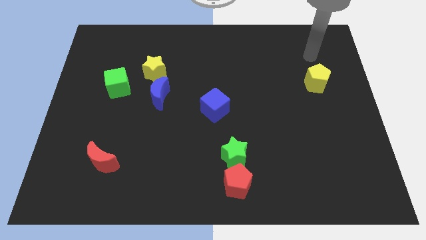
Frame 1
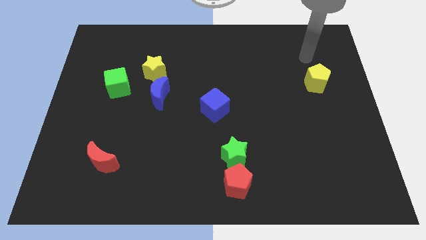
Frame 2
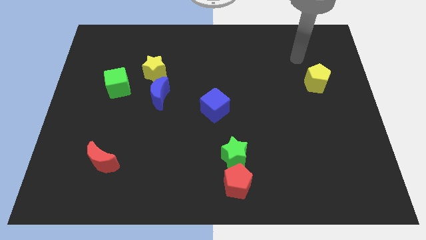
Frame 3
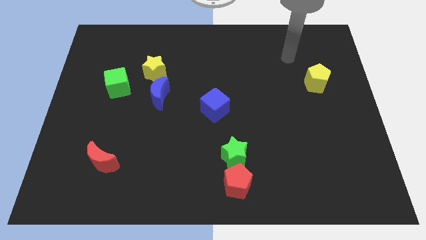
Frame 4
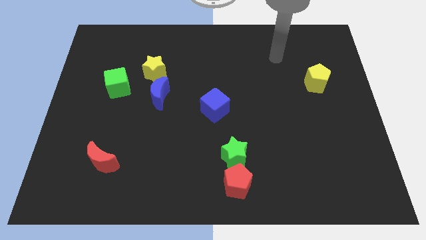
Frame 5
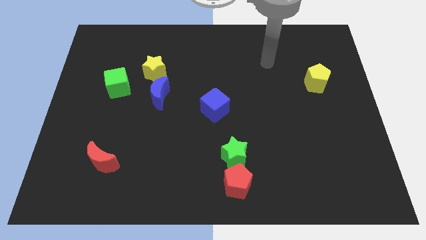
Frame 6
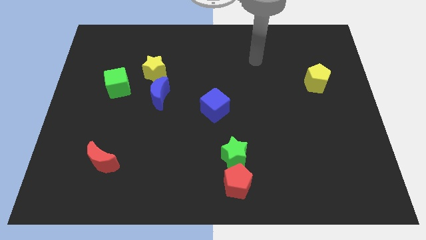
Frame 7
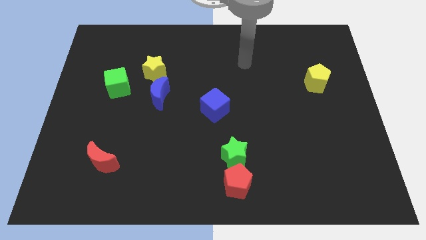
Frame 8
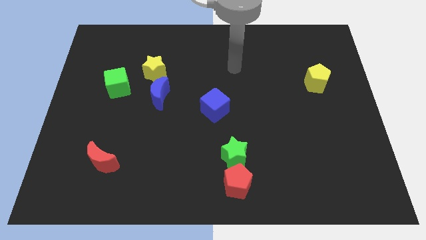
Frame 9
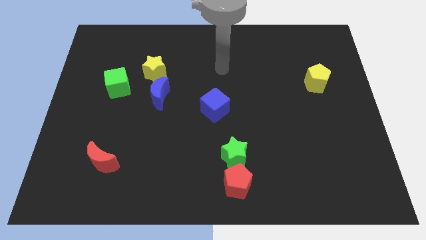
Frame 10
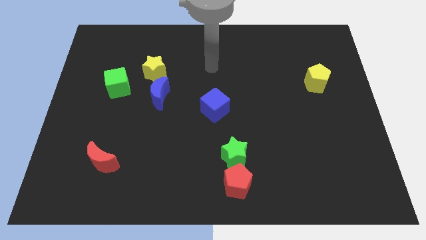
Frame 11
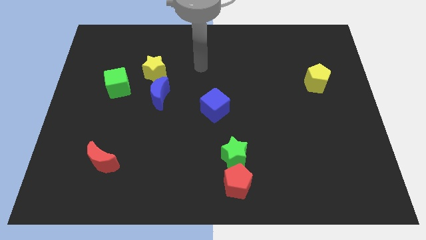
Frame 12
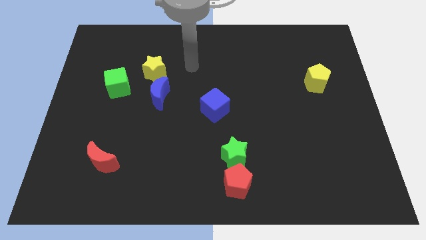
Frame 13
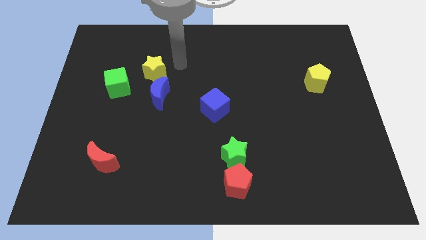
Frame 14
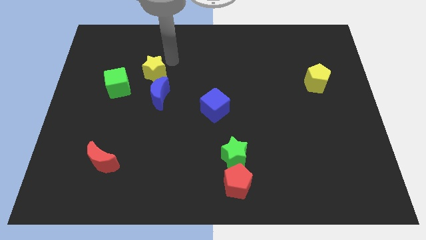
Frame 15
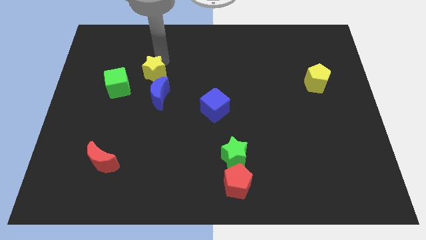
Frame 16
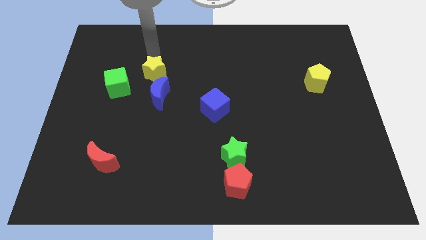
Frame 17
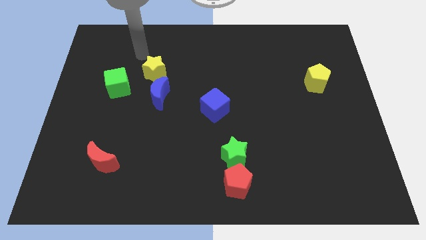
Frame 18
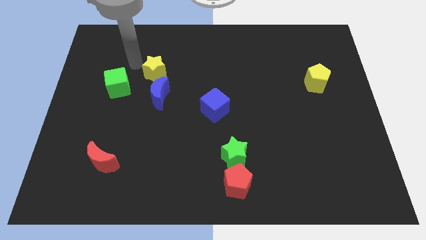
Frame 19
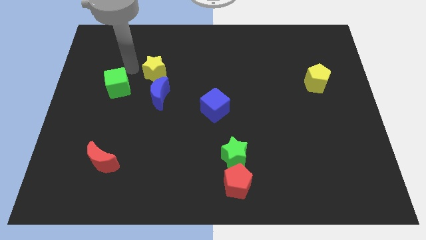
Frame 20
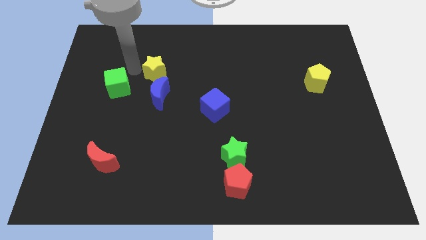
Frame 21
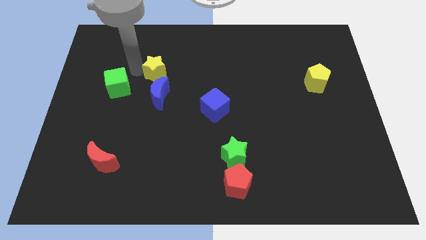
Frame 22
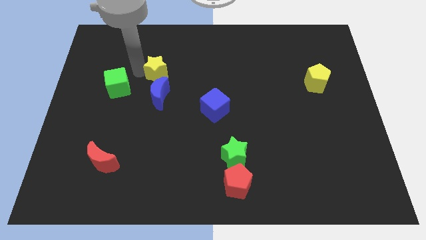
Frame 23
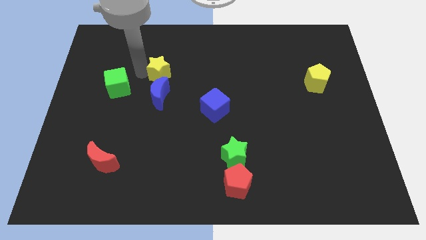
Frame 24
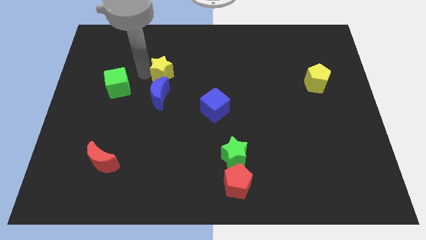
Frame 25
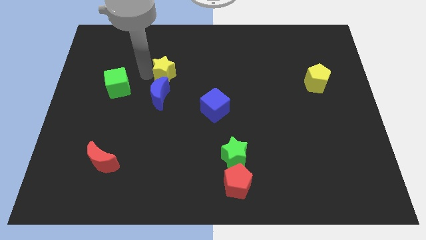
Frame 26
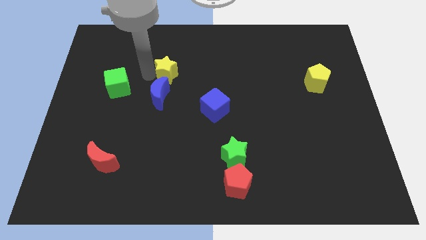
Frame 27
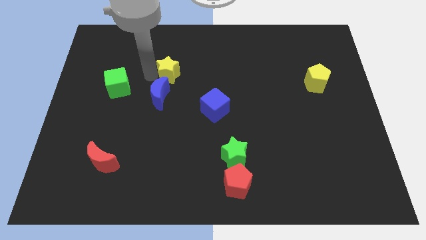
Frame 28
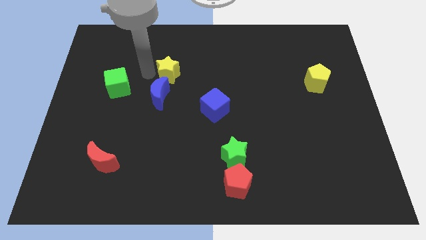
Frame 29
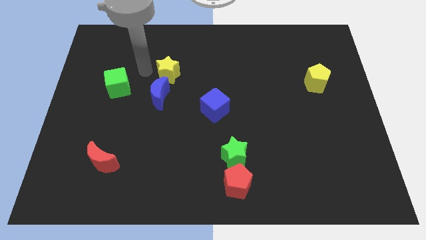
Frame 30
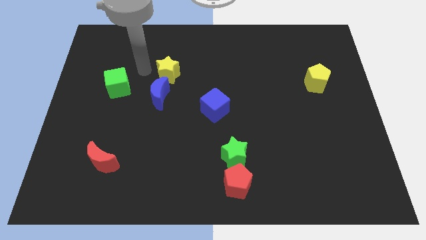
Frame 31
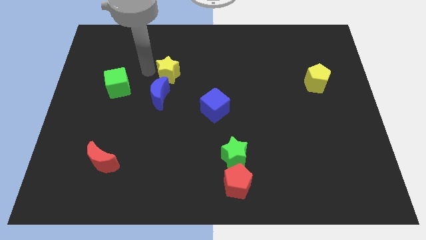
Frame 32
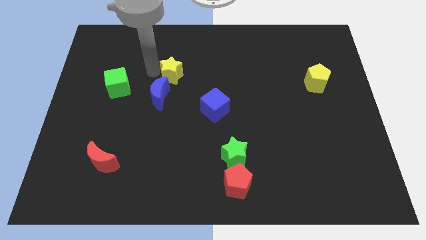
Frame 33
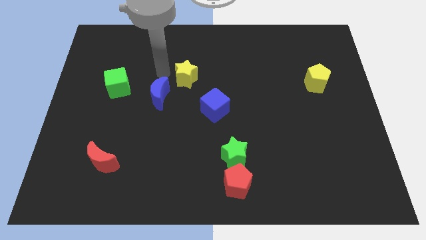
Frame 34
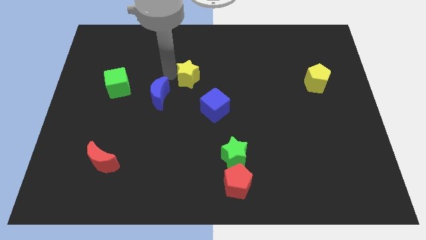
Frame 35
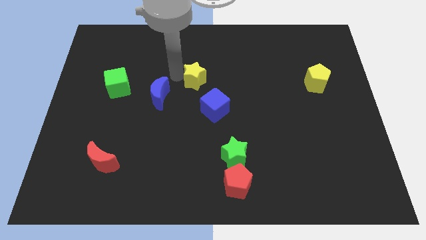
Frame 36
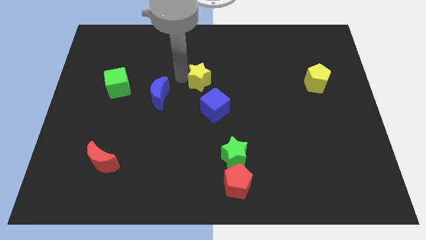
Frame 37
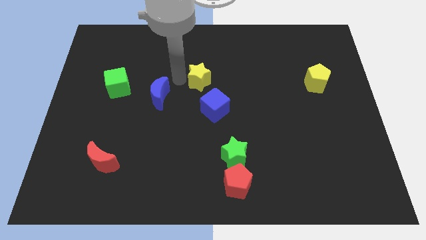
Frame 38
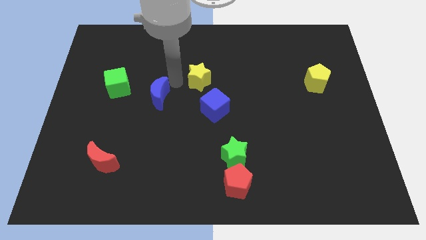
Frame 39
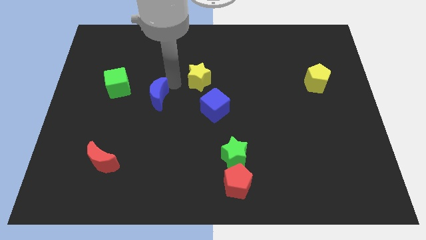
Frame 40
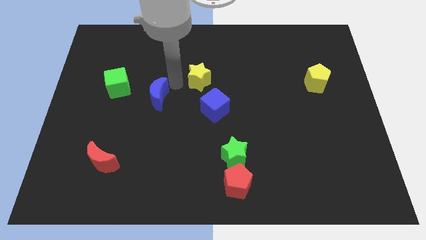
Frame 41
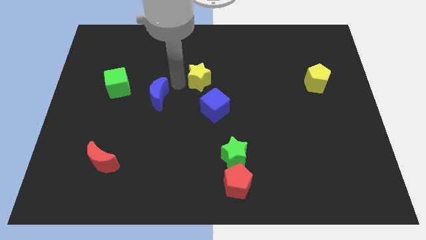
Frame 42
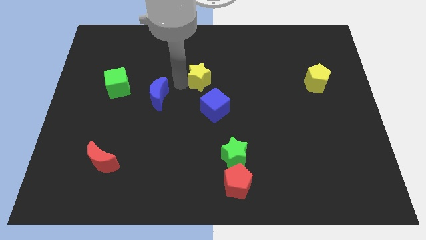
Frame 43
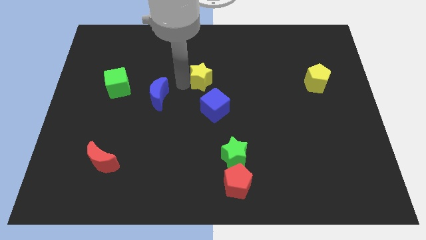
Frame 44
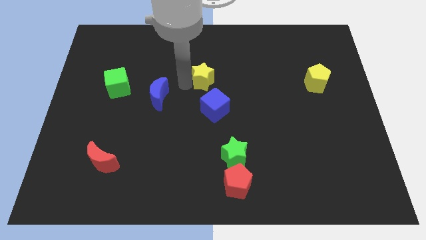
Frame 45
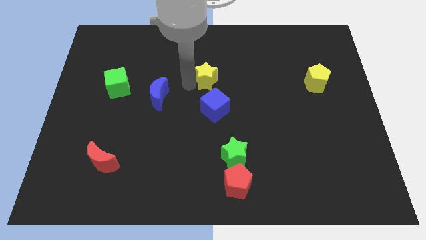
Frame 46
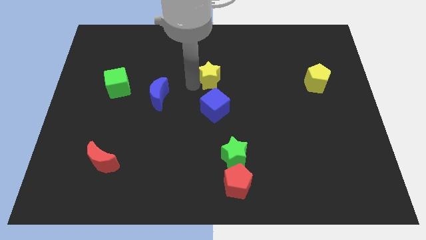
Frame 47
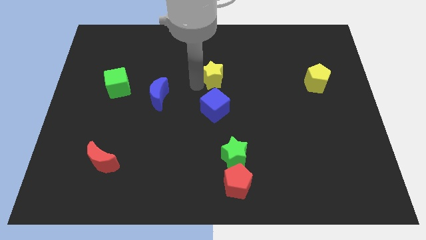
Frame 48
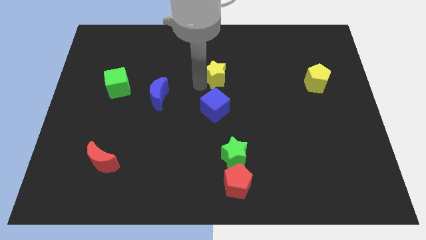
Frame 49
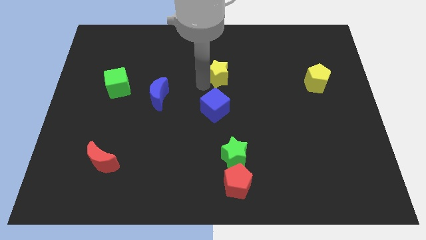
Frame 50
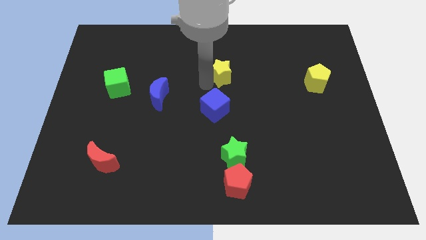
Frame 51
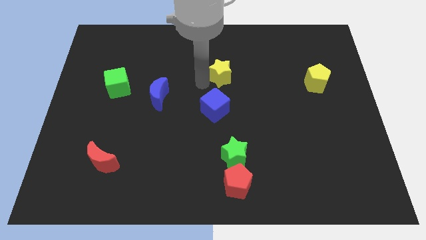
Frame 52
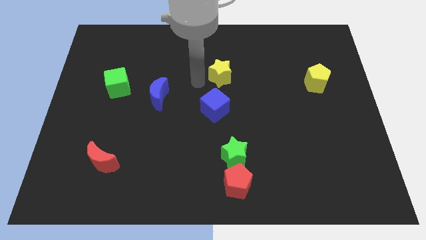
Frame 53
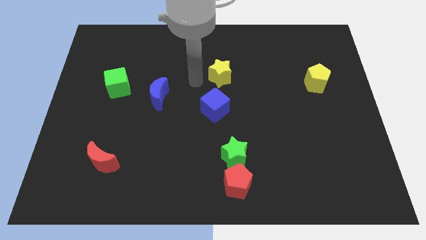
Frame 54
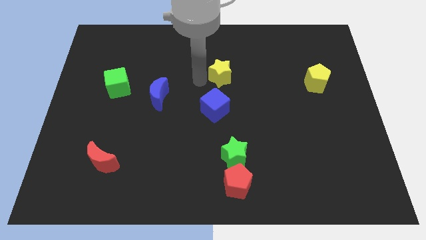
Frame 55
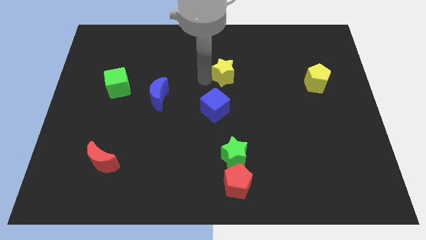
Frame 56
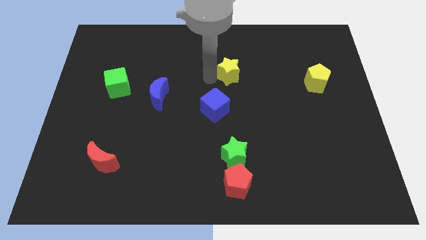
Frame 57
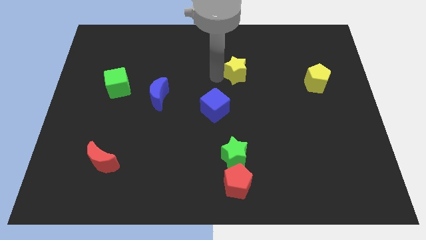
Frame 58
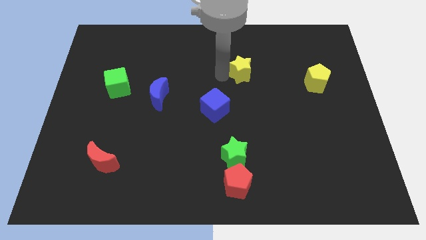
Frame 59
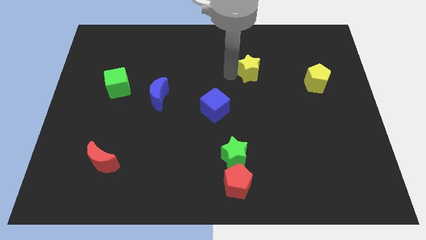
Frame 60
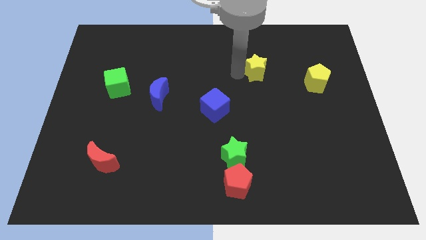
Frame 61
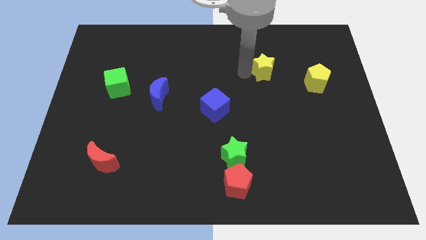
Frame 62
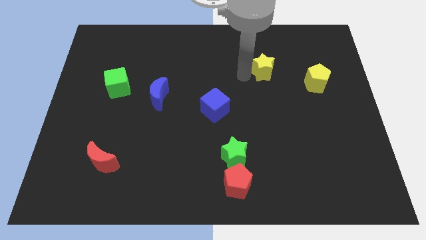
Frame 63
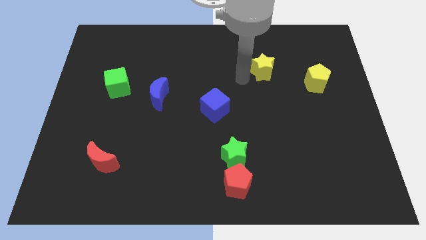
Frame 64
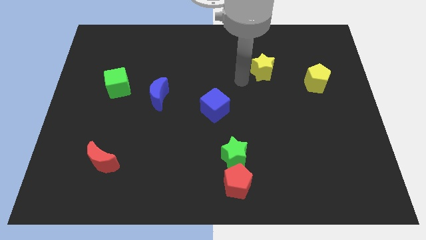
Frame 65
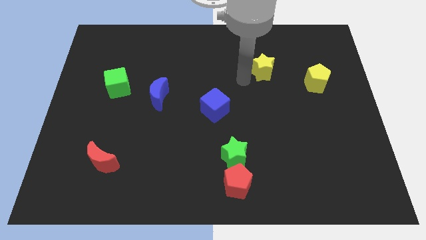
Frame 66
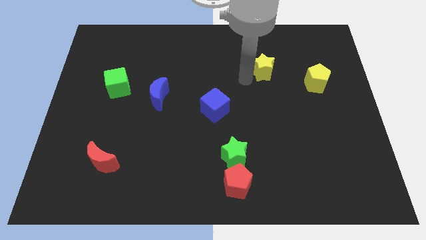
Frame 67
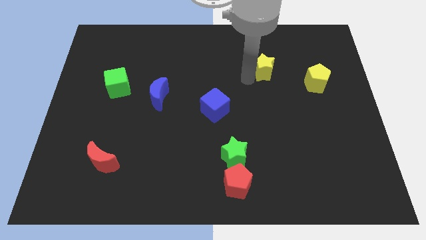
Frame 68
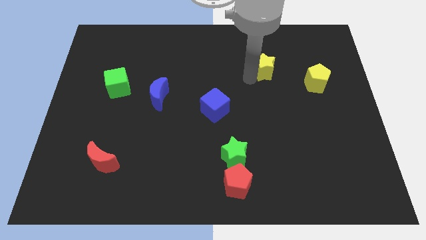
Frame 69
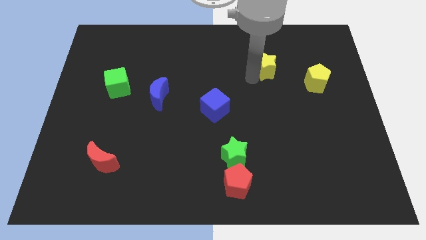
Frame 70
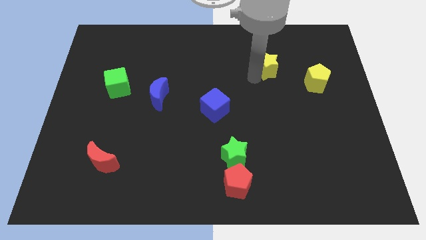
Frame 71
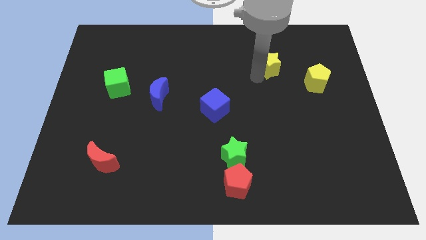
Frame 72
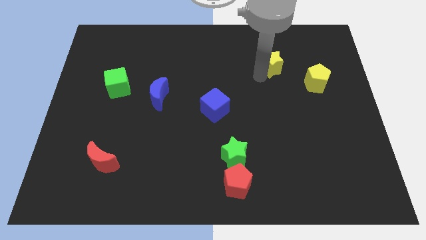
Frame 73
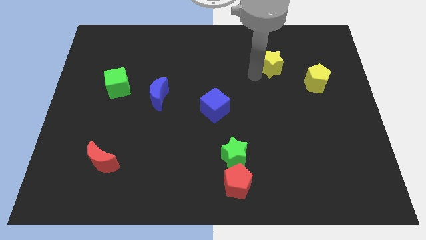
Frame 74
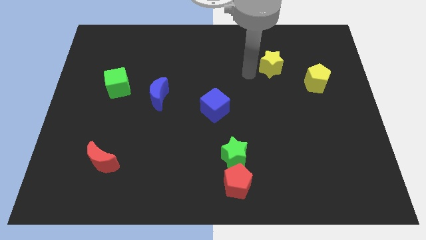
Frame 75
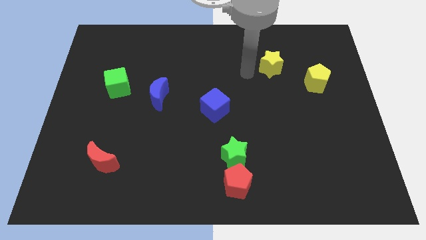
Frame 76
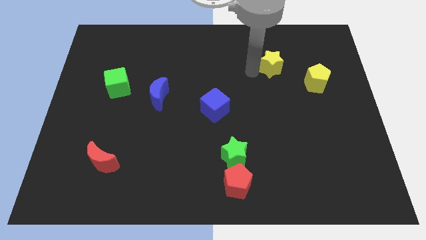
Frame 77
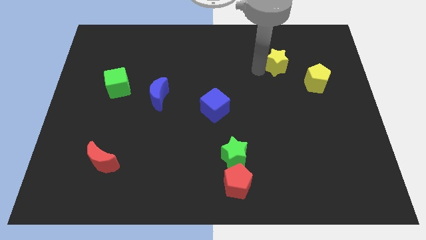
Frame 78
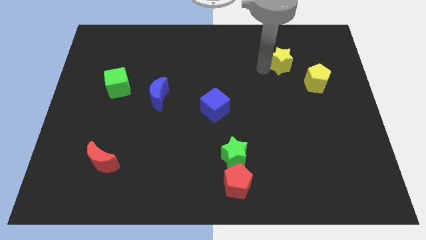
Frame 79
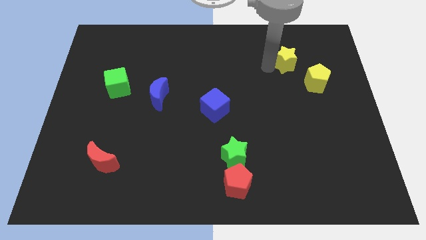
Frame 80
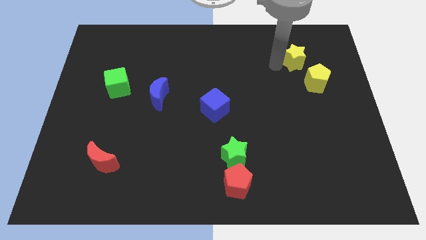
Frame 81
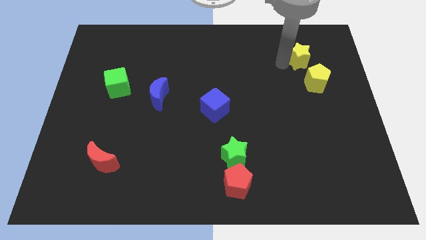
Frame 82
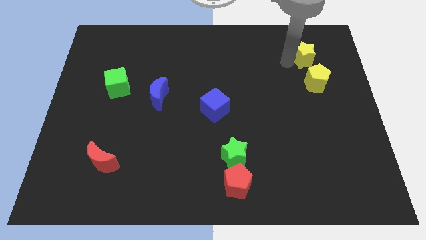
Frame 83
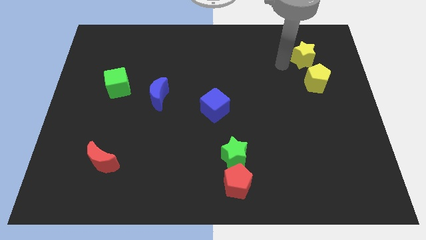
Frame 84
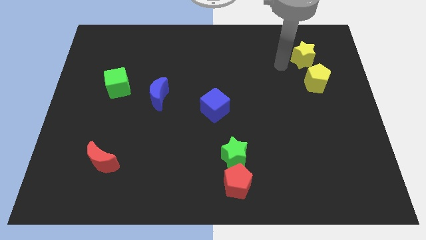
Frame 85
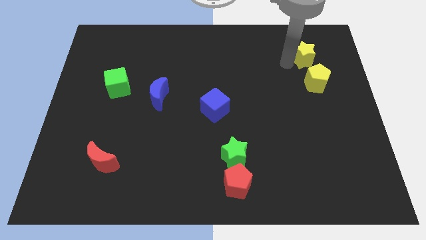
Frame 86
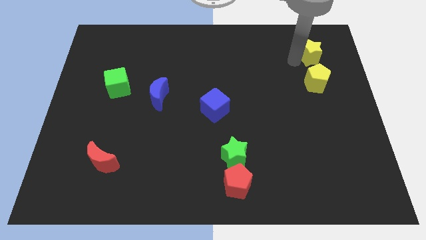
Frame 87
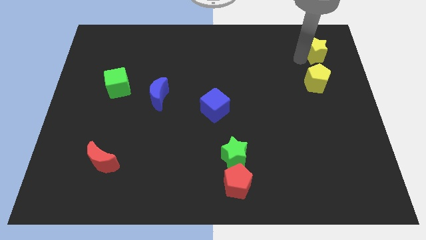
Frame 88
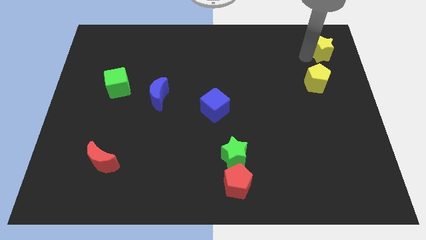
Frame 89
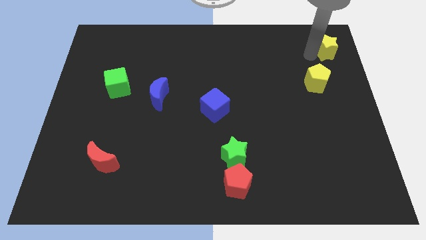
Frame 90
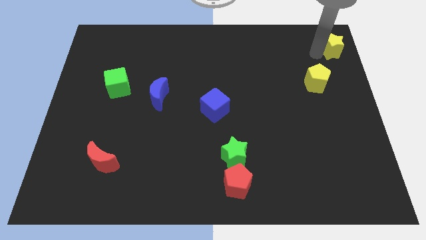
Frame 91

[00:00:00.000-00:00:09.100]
put the yellow star to the top right
